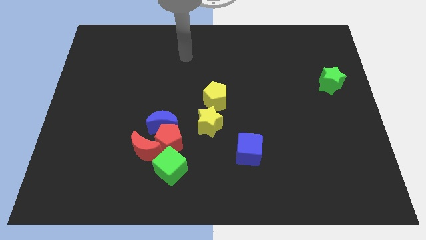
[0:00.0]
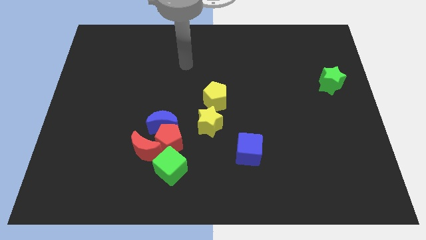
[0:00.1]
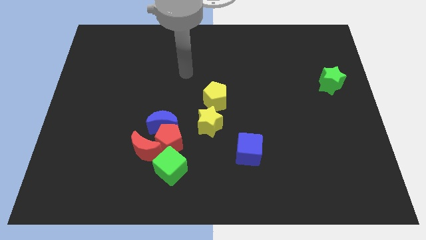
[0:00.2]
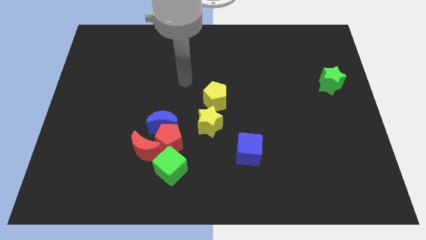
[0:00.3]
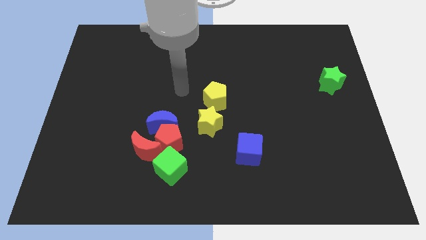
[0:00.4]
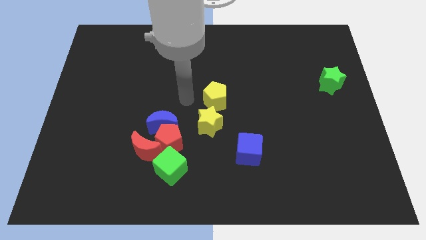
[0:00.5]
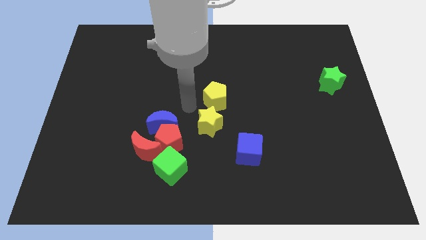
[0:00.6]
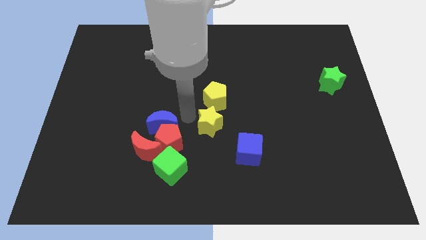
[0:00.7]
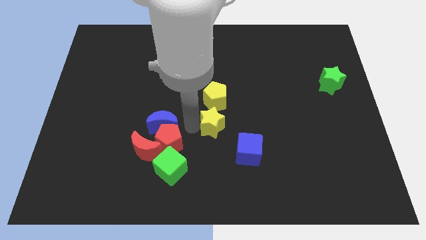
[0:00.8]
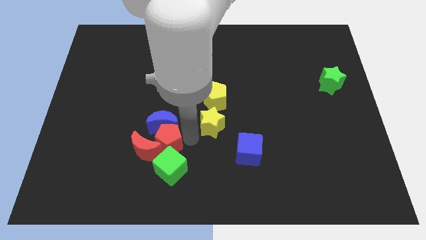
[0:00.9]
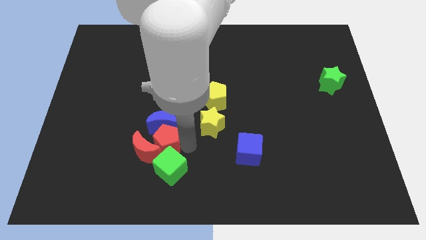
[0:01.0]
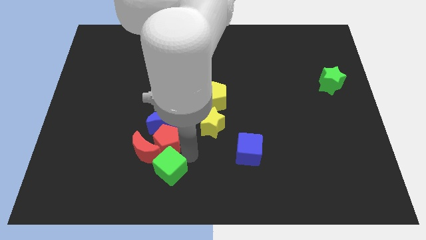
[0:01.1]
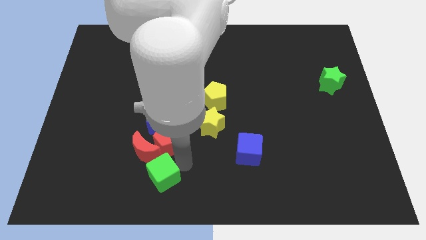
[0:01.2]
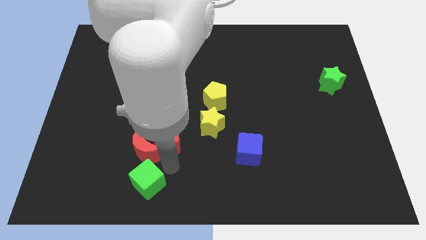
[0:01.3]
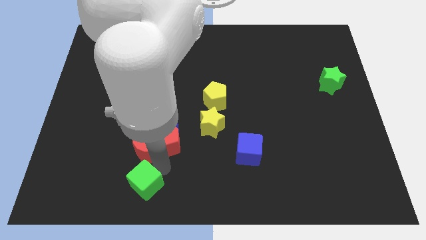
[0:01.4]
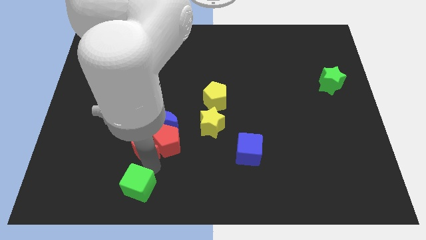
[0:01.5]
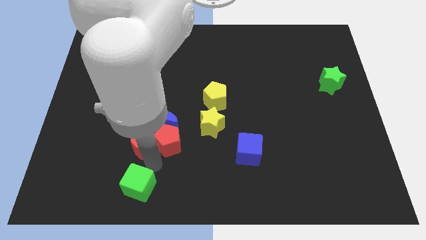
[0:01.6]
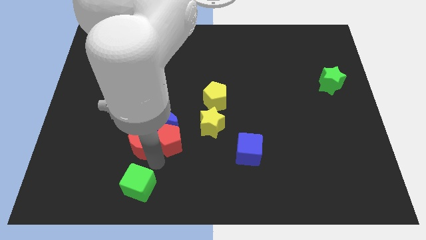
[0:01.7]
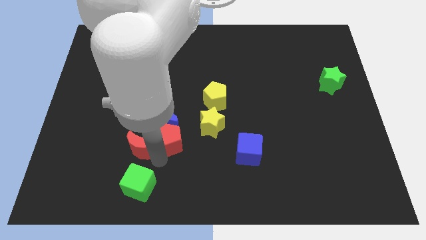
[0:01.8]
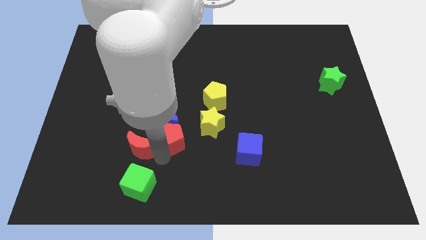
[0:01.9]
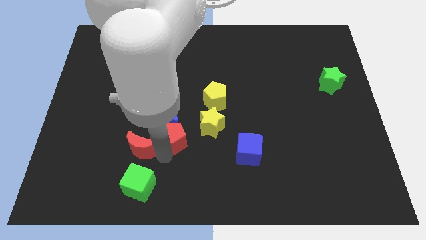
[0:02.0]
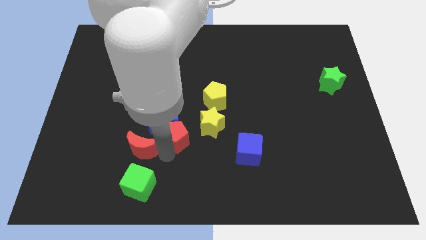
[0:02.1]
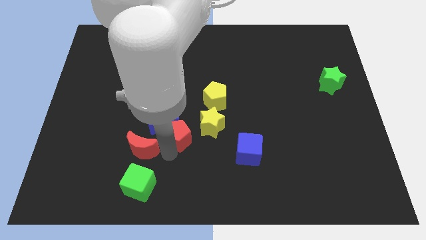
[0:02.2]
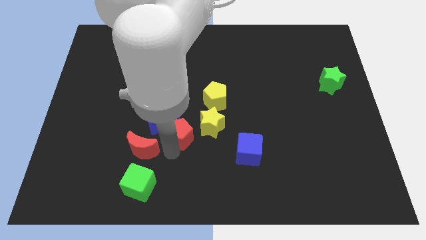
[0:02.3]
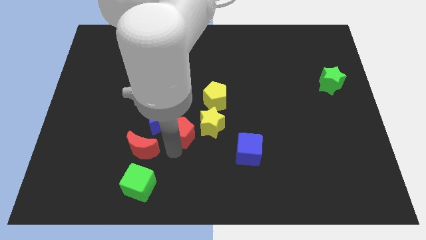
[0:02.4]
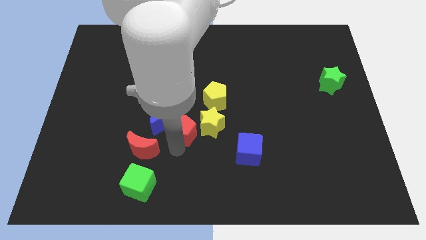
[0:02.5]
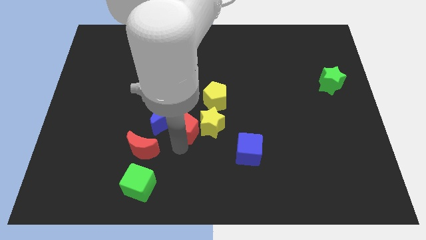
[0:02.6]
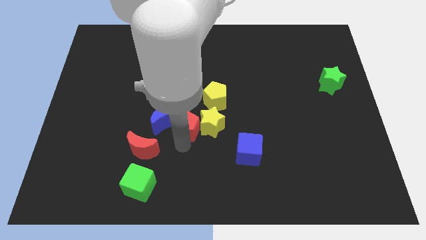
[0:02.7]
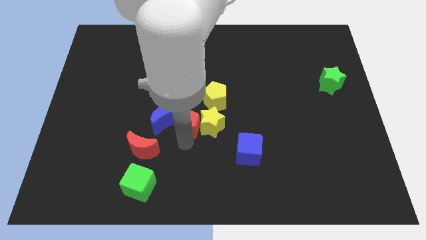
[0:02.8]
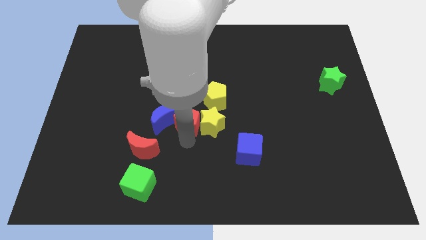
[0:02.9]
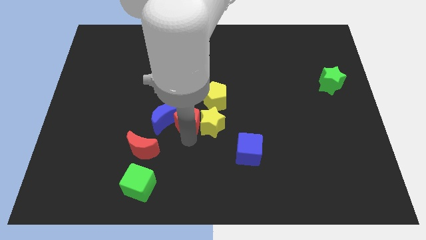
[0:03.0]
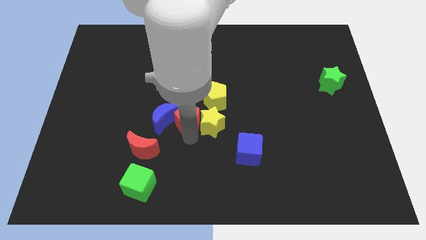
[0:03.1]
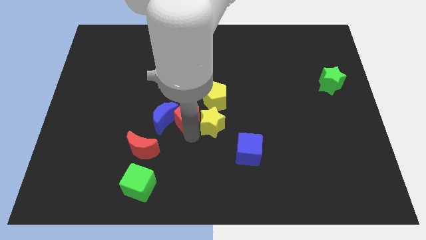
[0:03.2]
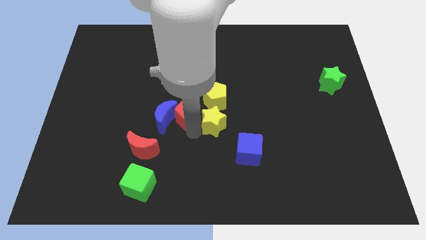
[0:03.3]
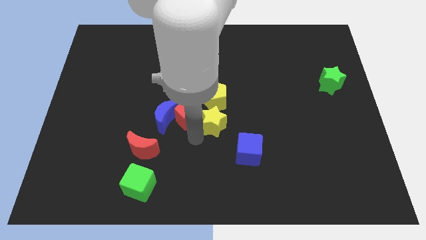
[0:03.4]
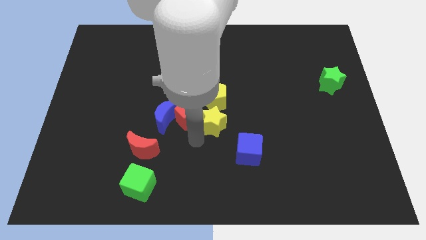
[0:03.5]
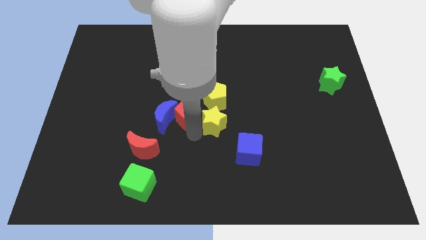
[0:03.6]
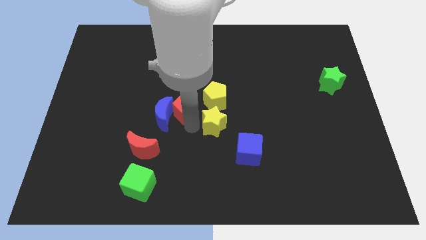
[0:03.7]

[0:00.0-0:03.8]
slightly push the red pentagon upwards

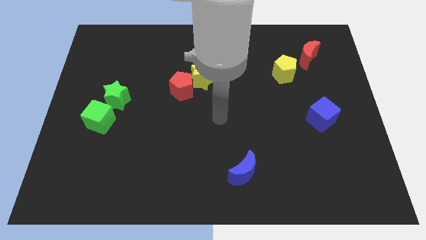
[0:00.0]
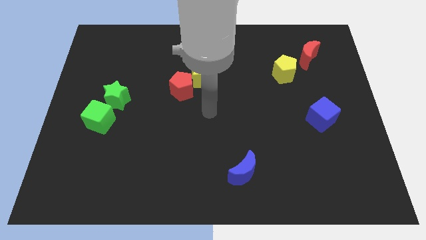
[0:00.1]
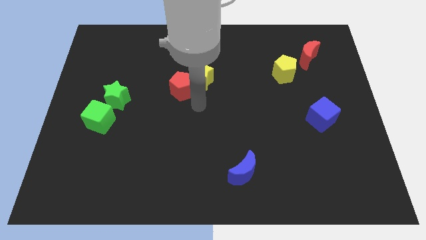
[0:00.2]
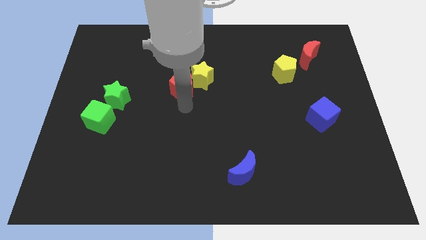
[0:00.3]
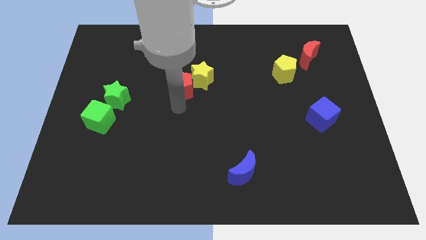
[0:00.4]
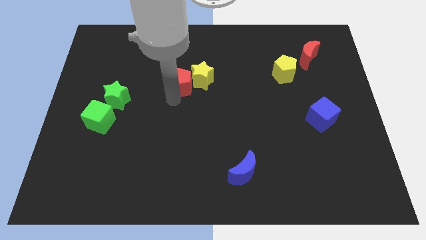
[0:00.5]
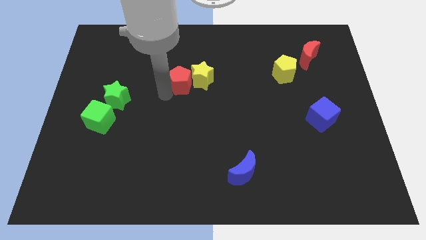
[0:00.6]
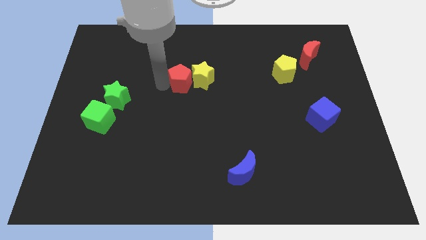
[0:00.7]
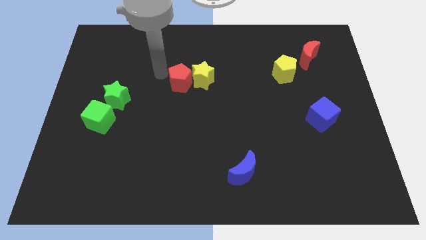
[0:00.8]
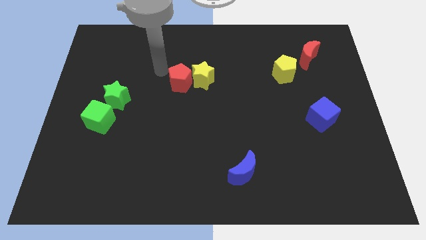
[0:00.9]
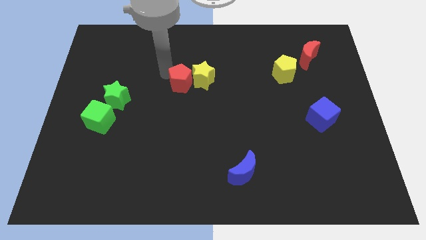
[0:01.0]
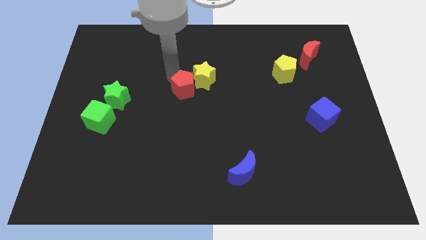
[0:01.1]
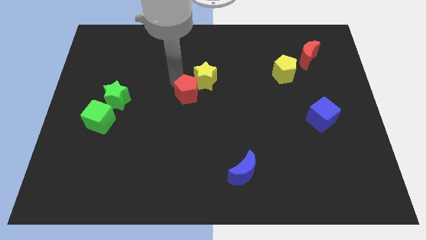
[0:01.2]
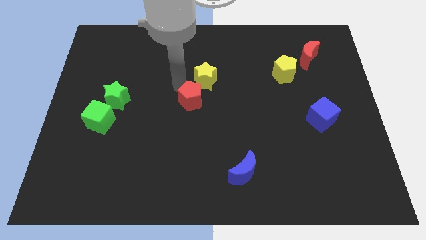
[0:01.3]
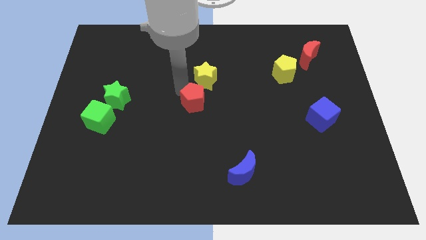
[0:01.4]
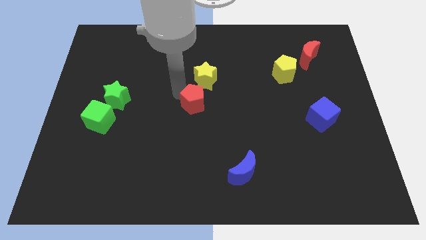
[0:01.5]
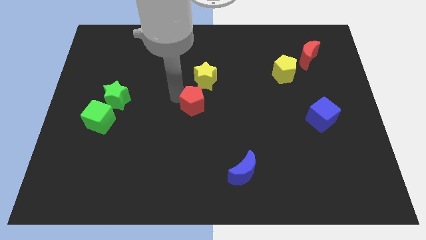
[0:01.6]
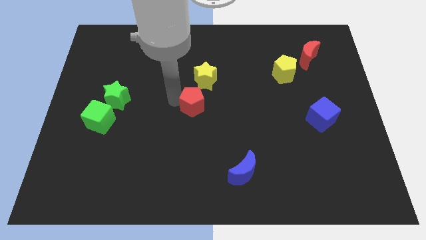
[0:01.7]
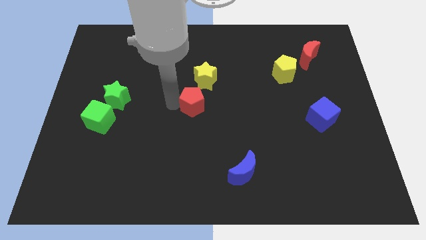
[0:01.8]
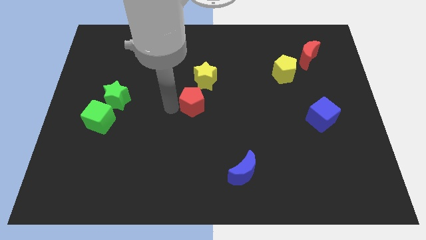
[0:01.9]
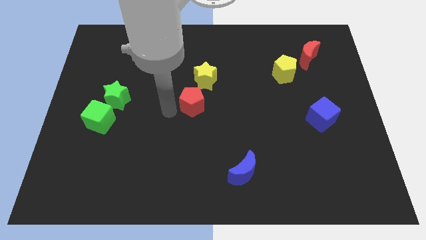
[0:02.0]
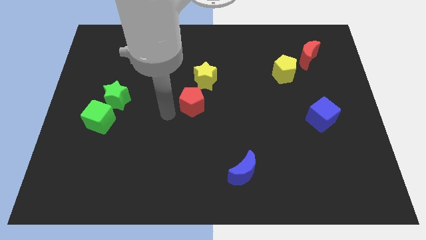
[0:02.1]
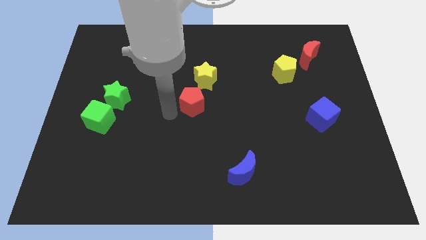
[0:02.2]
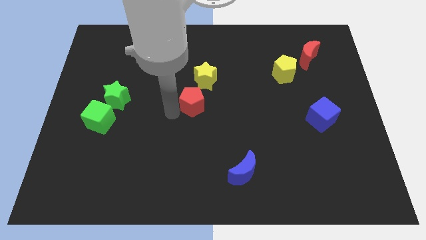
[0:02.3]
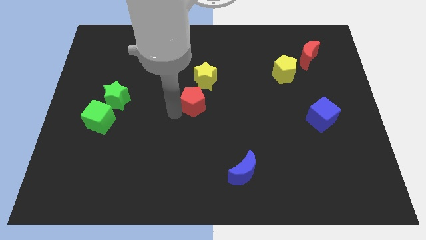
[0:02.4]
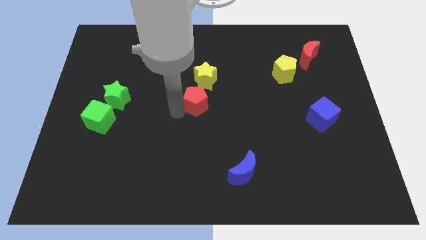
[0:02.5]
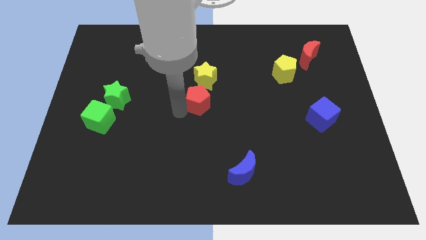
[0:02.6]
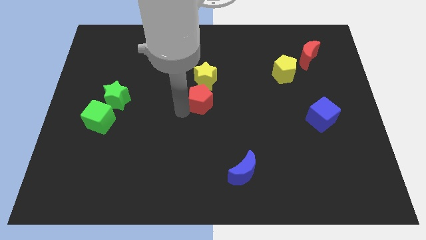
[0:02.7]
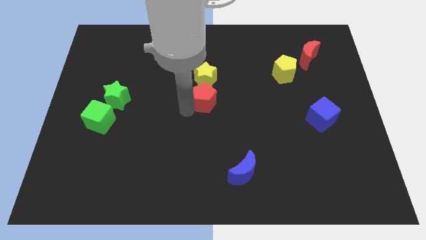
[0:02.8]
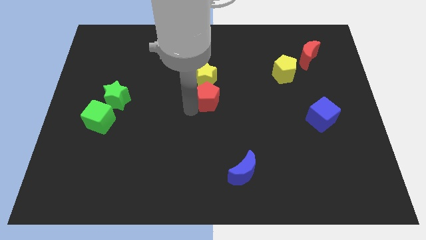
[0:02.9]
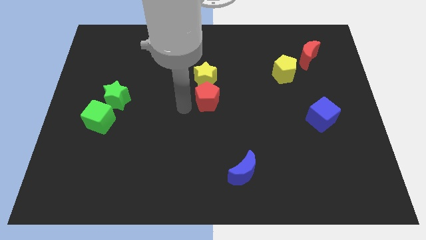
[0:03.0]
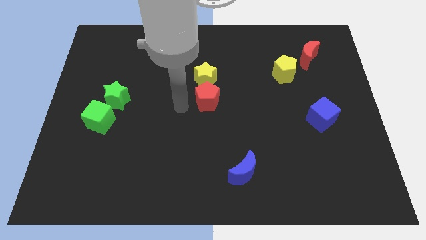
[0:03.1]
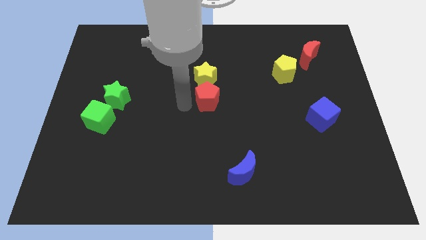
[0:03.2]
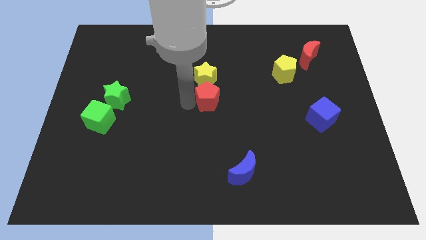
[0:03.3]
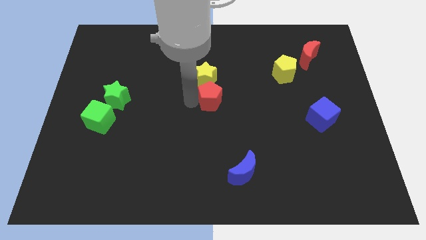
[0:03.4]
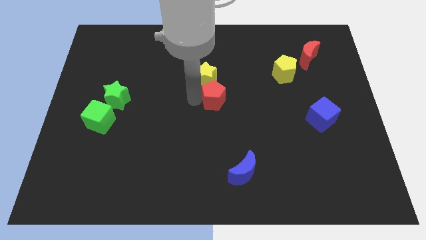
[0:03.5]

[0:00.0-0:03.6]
push the red pentagon a little to the right

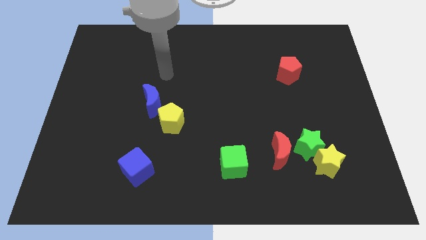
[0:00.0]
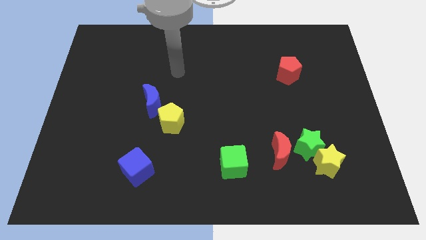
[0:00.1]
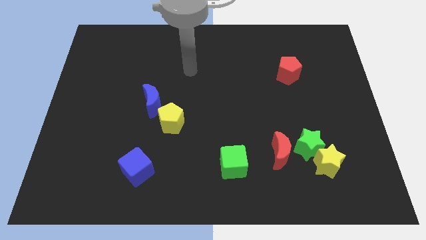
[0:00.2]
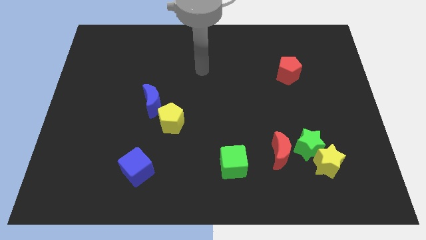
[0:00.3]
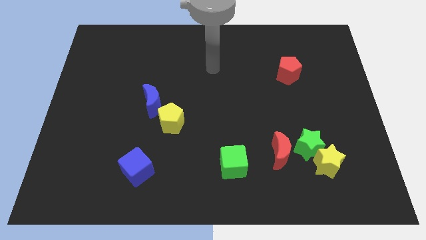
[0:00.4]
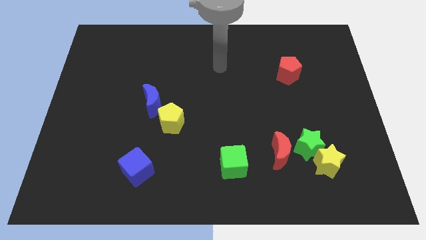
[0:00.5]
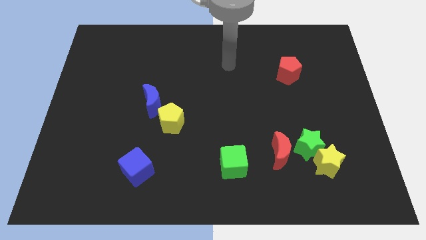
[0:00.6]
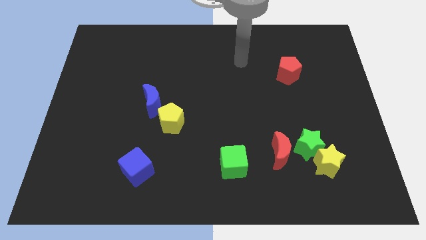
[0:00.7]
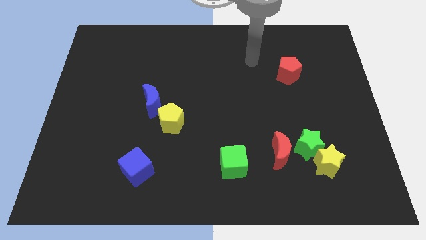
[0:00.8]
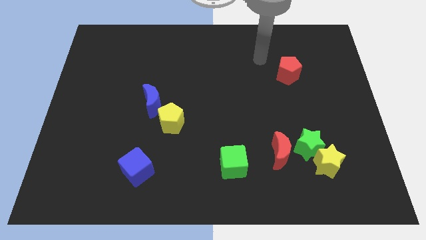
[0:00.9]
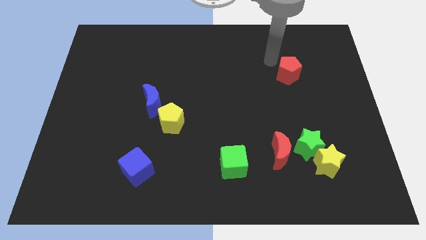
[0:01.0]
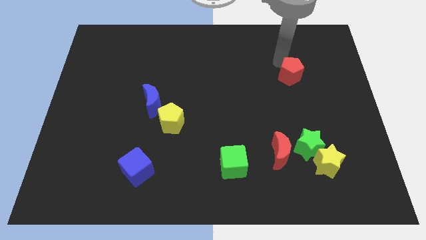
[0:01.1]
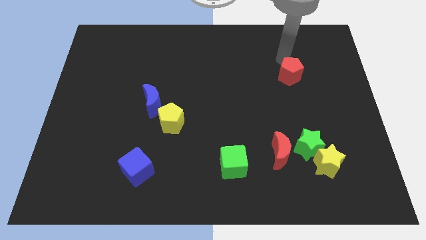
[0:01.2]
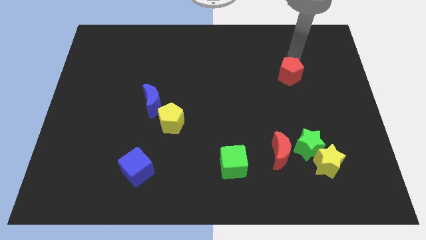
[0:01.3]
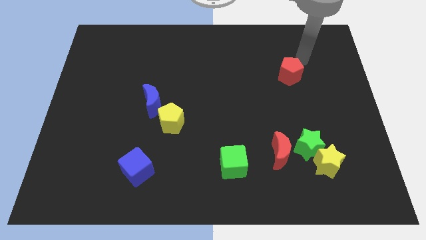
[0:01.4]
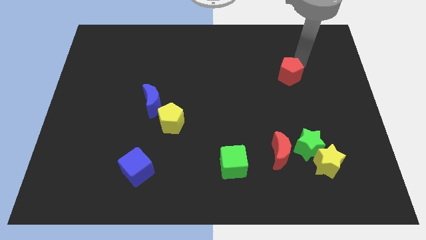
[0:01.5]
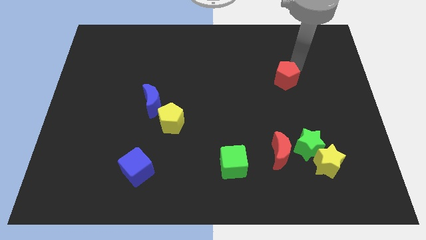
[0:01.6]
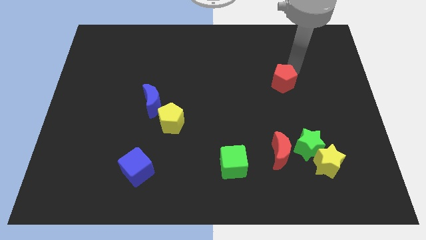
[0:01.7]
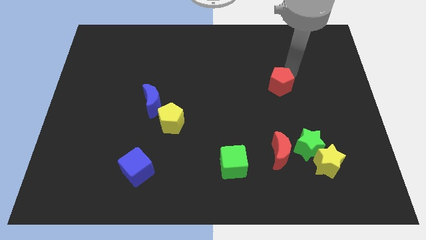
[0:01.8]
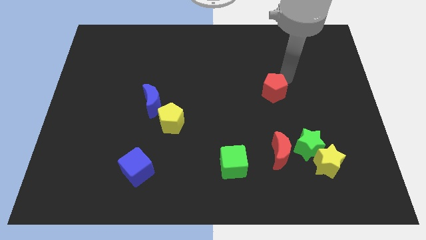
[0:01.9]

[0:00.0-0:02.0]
move the red pentagon down and left somewhat
